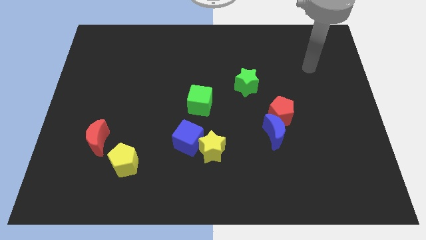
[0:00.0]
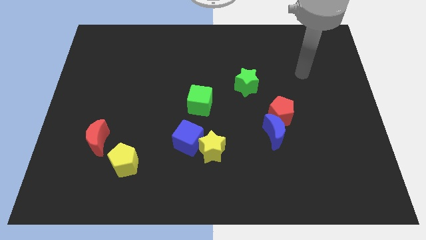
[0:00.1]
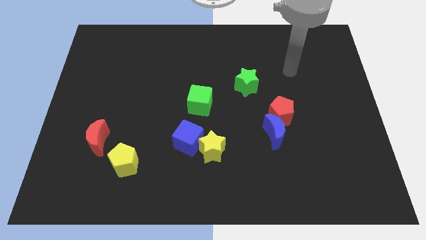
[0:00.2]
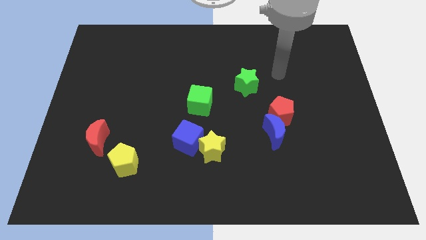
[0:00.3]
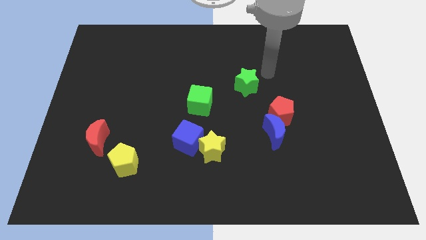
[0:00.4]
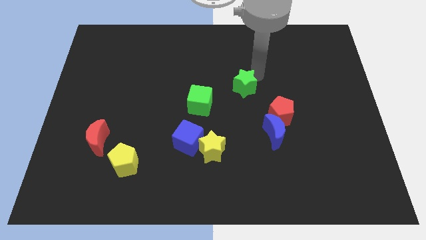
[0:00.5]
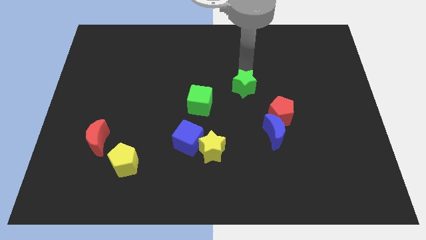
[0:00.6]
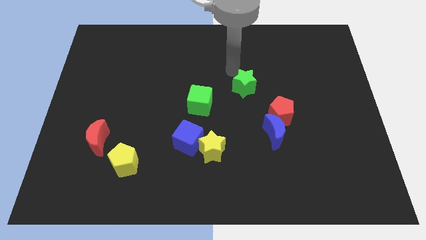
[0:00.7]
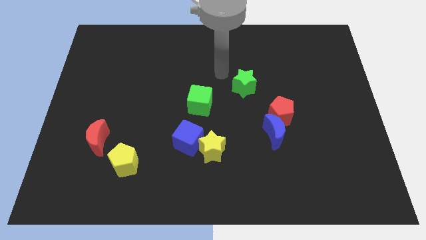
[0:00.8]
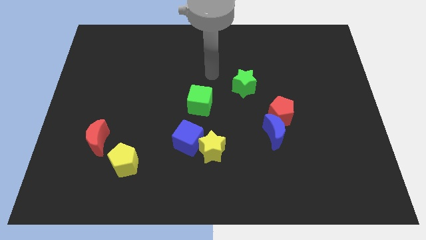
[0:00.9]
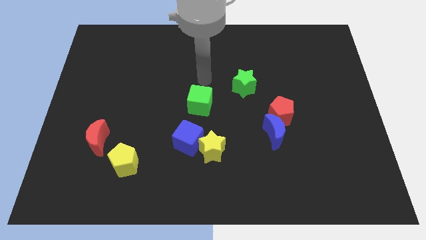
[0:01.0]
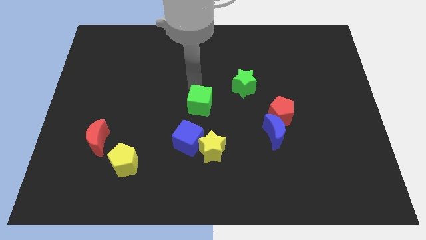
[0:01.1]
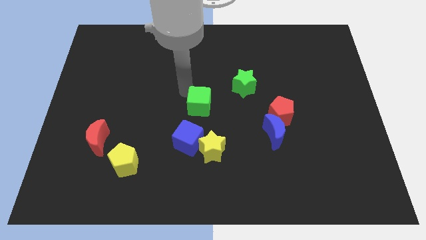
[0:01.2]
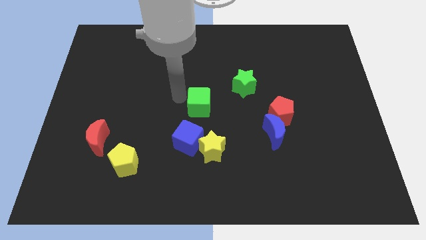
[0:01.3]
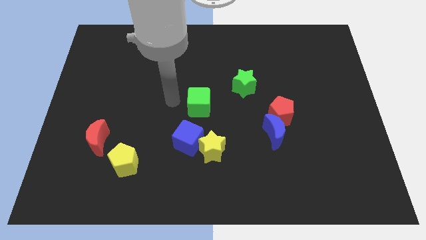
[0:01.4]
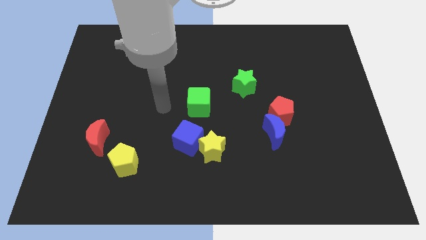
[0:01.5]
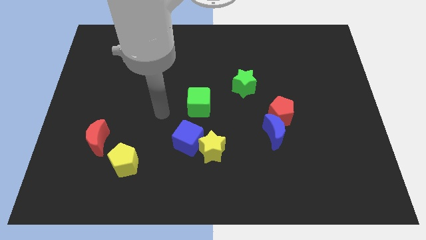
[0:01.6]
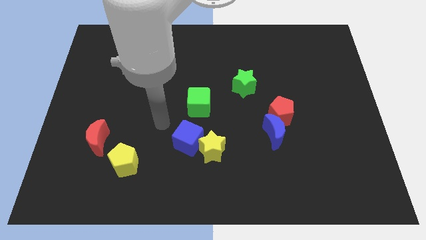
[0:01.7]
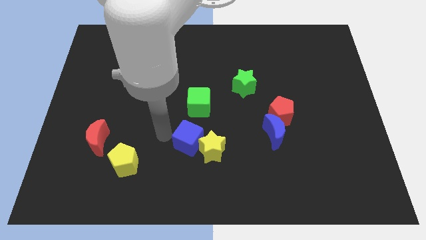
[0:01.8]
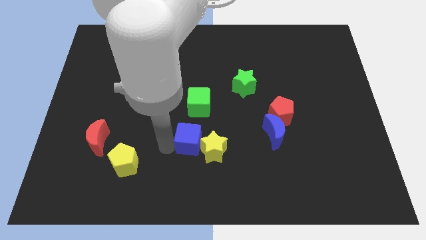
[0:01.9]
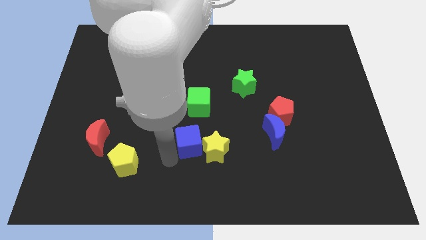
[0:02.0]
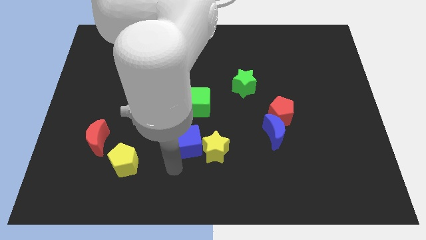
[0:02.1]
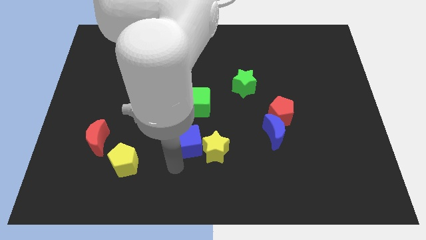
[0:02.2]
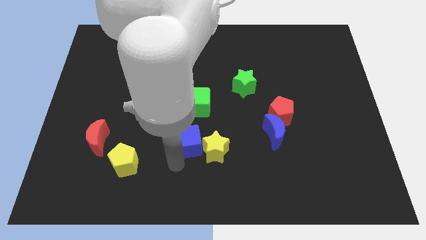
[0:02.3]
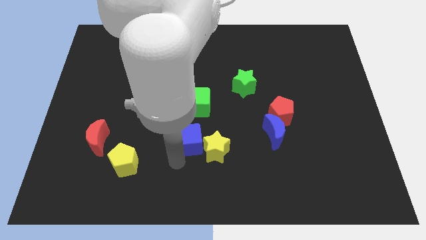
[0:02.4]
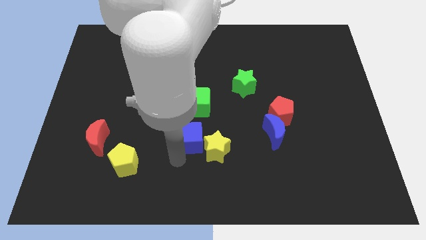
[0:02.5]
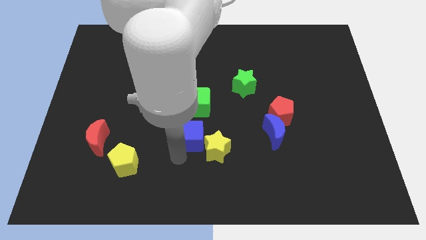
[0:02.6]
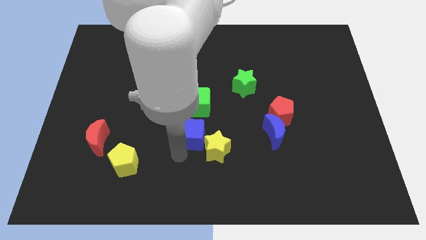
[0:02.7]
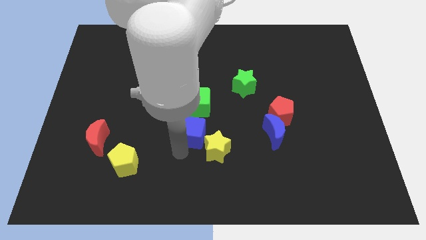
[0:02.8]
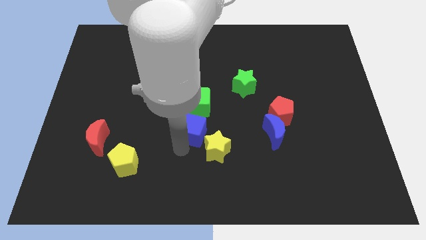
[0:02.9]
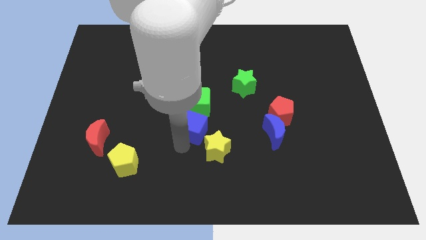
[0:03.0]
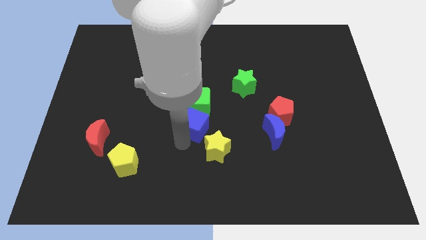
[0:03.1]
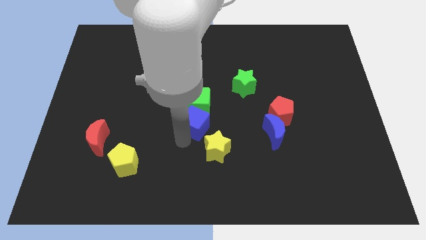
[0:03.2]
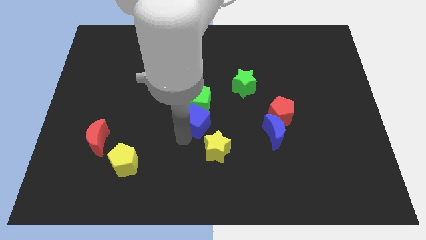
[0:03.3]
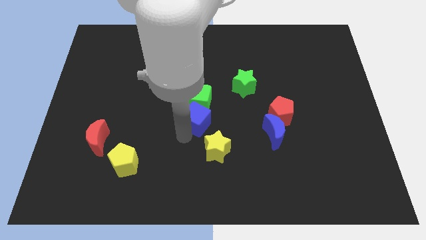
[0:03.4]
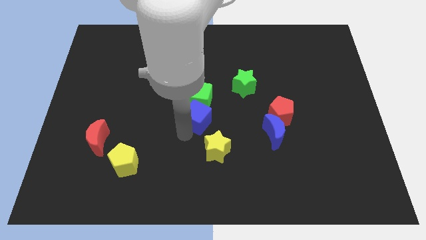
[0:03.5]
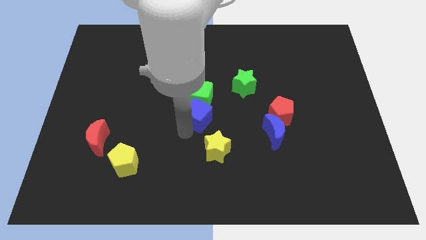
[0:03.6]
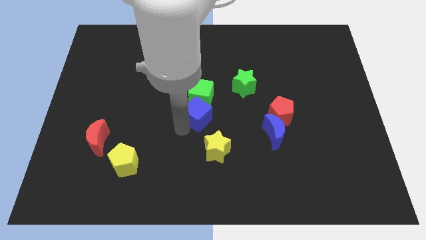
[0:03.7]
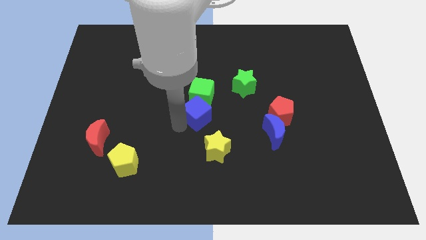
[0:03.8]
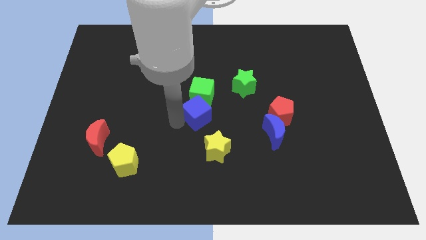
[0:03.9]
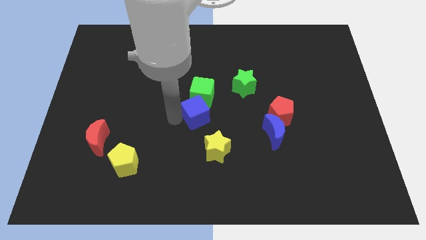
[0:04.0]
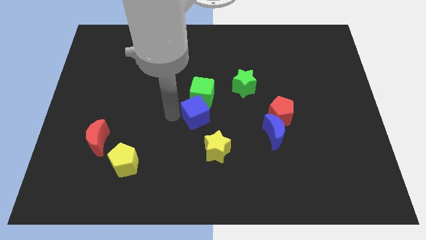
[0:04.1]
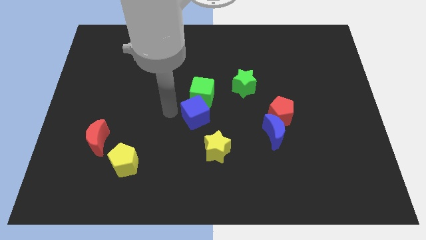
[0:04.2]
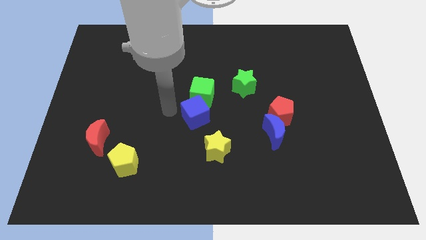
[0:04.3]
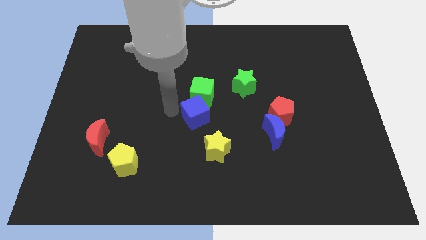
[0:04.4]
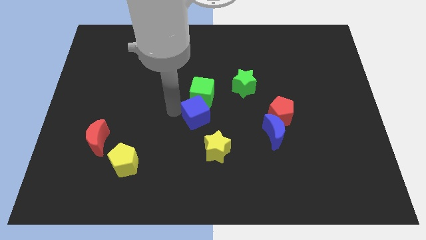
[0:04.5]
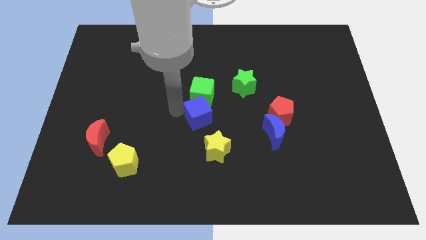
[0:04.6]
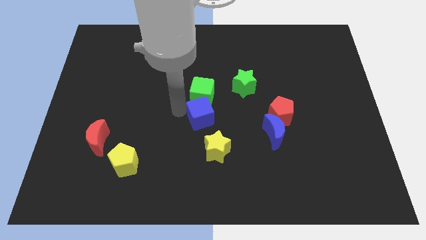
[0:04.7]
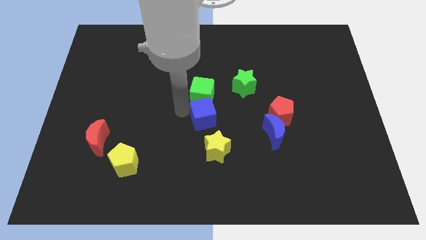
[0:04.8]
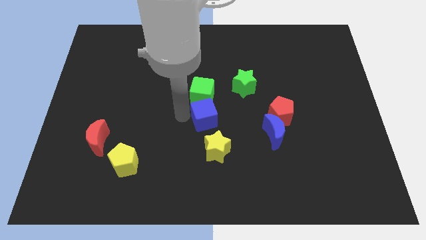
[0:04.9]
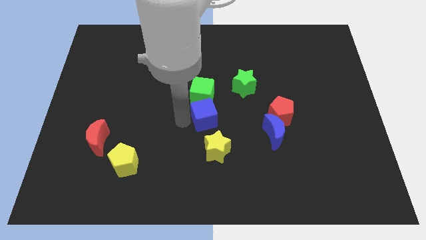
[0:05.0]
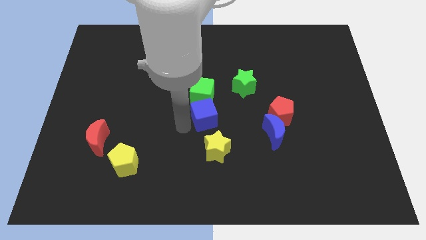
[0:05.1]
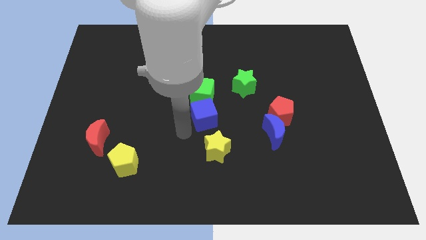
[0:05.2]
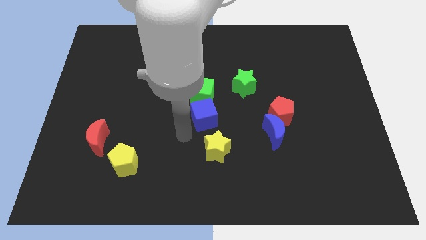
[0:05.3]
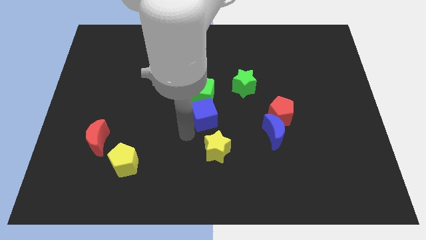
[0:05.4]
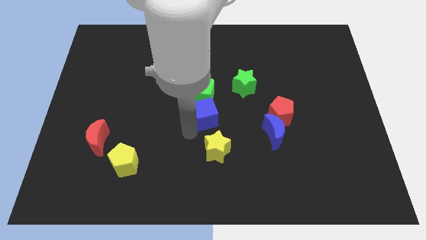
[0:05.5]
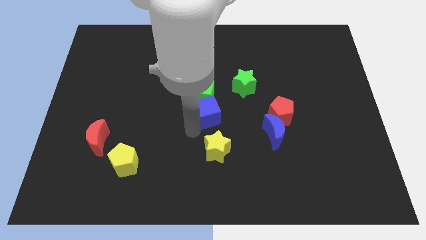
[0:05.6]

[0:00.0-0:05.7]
push the blue cube diagonally down and to the left of the green star

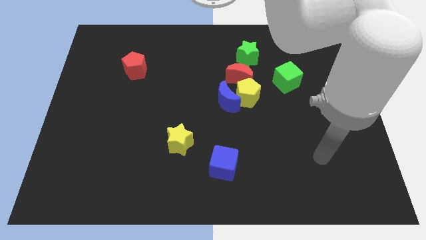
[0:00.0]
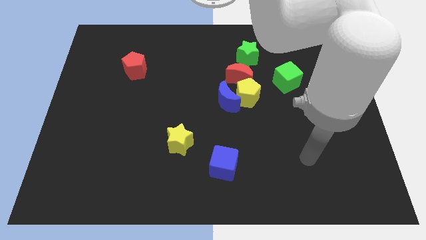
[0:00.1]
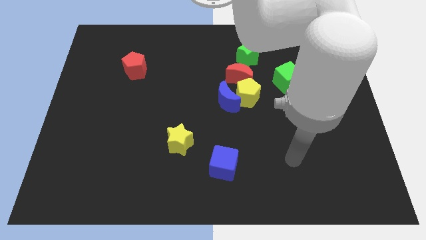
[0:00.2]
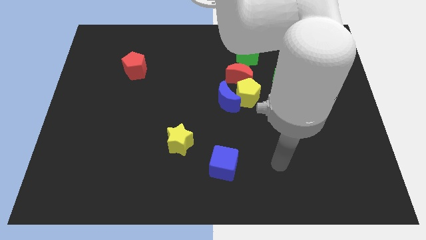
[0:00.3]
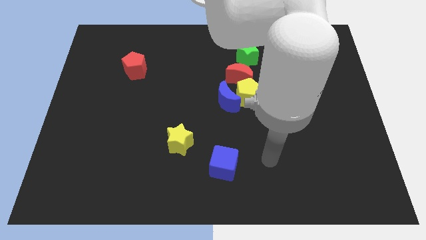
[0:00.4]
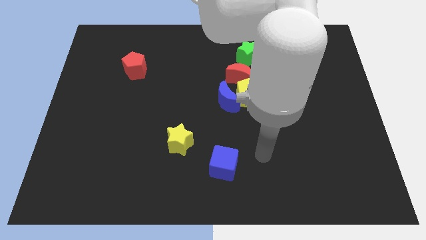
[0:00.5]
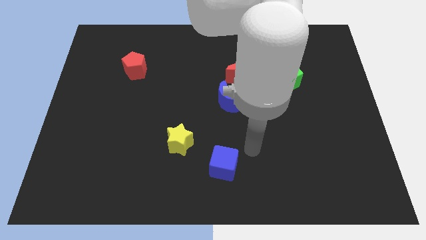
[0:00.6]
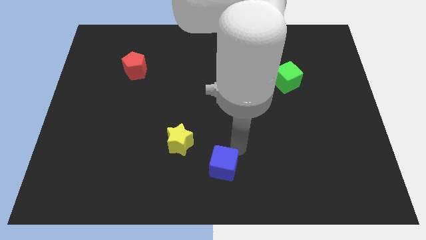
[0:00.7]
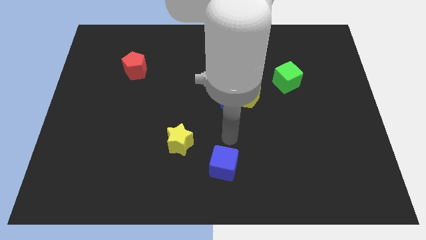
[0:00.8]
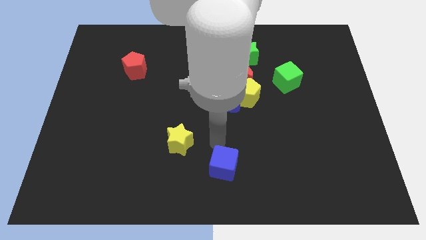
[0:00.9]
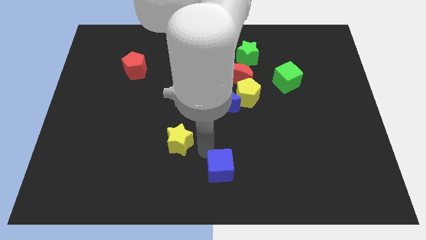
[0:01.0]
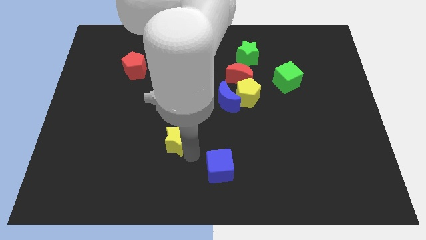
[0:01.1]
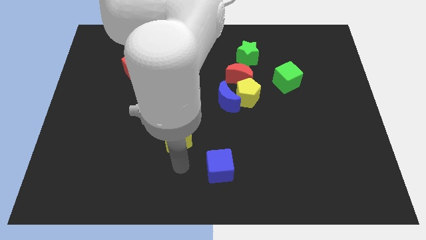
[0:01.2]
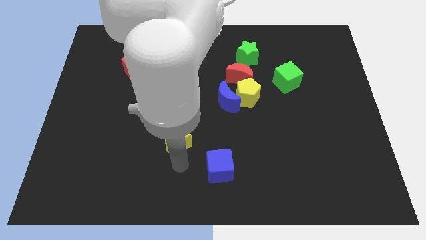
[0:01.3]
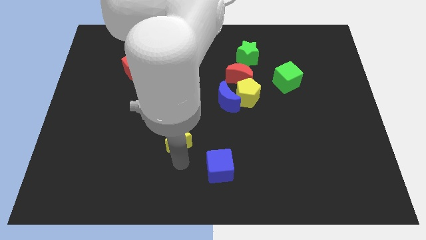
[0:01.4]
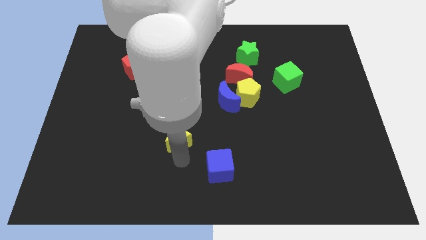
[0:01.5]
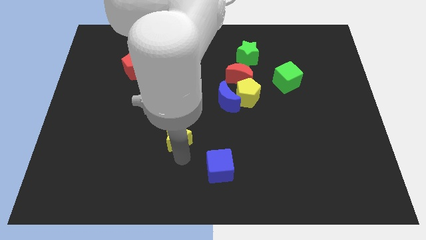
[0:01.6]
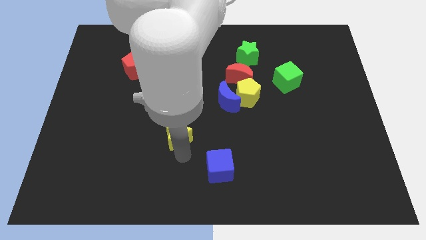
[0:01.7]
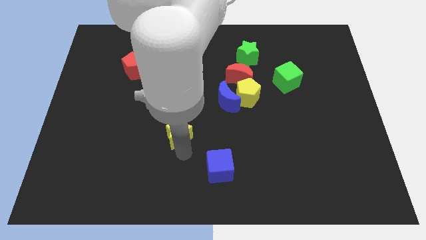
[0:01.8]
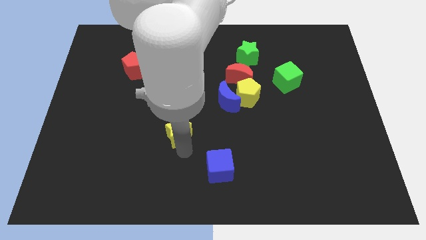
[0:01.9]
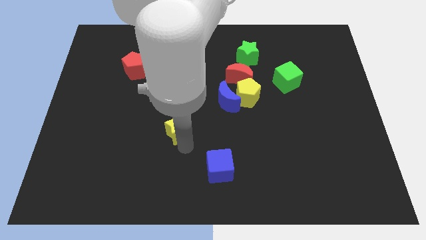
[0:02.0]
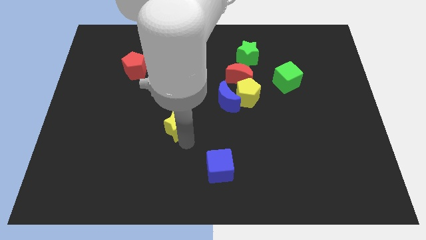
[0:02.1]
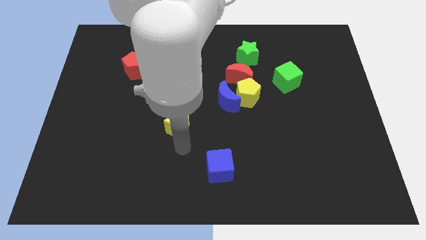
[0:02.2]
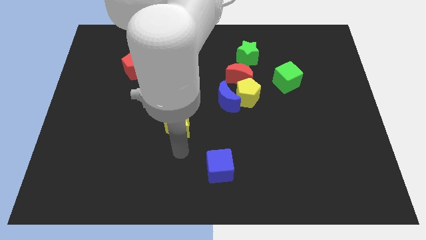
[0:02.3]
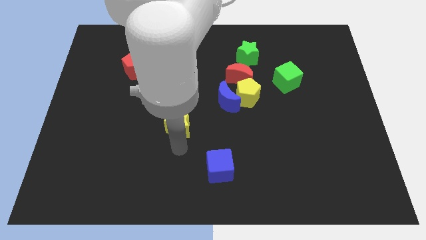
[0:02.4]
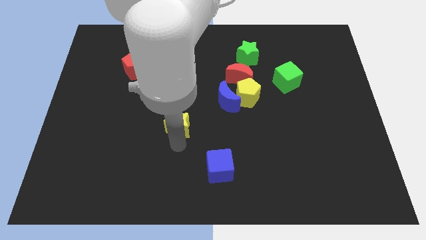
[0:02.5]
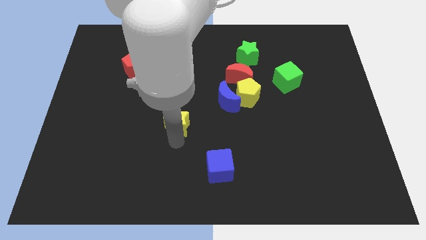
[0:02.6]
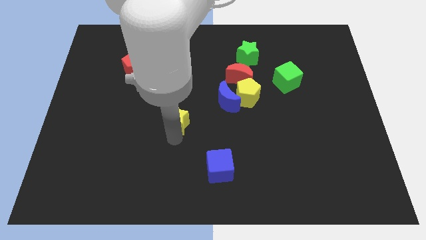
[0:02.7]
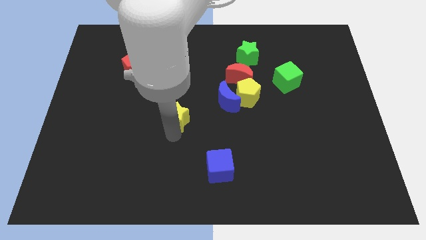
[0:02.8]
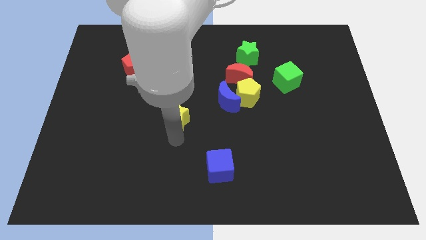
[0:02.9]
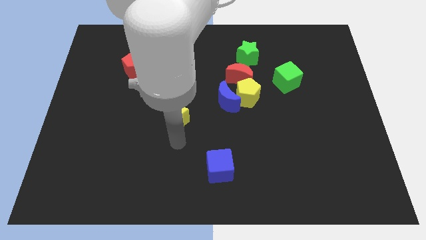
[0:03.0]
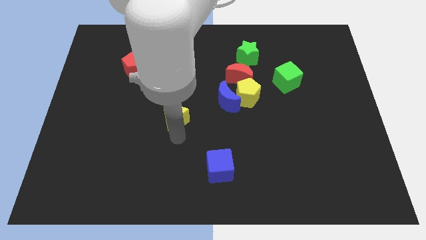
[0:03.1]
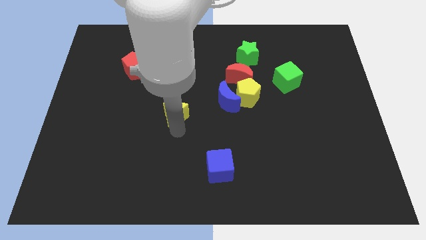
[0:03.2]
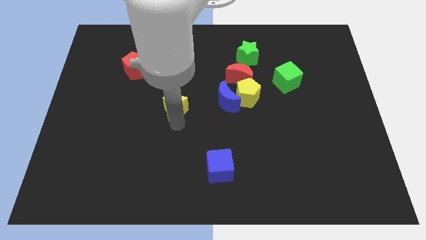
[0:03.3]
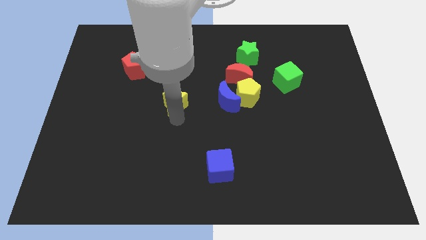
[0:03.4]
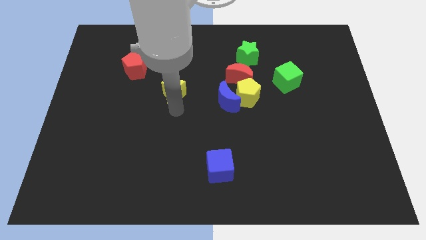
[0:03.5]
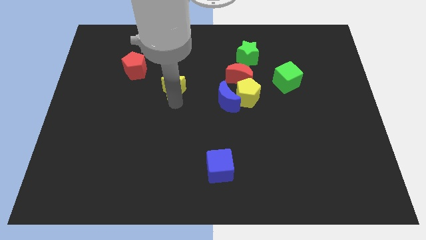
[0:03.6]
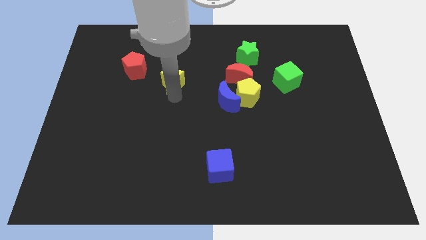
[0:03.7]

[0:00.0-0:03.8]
put the yellow star right of the red pentagon
